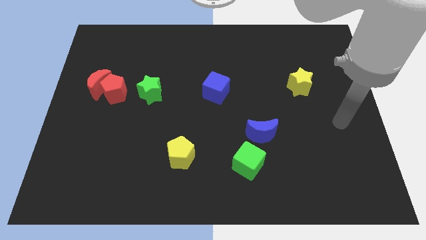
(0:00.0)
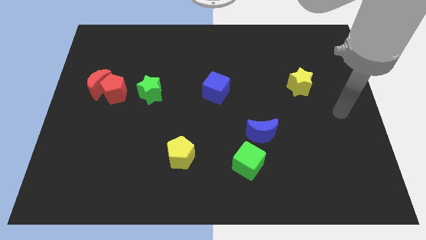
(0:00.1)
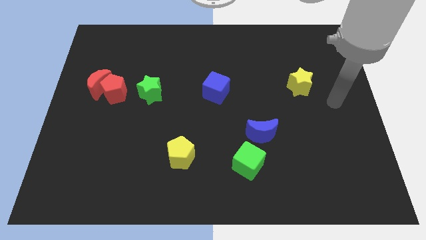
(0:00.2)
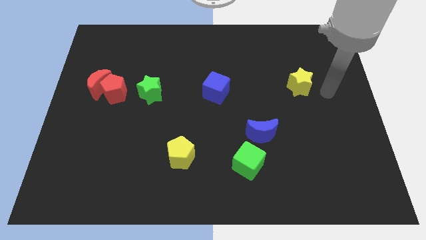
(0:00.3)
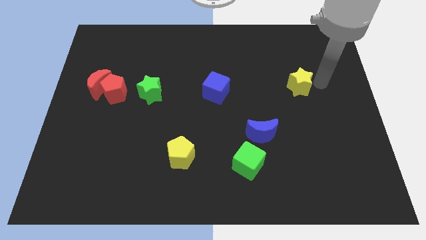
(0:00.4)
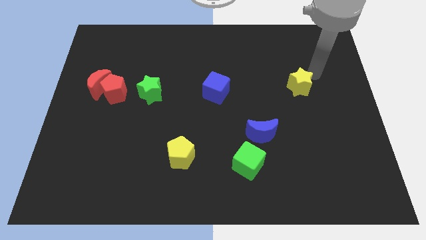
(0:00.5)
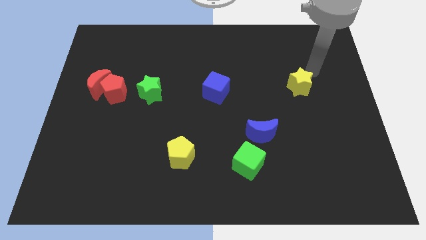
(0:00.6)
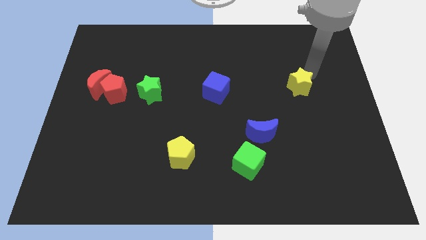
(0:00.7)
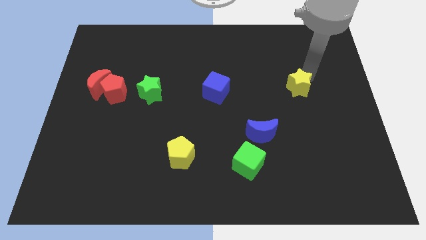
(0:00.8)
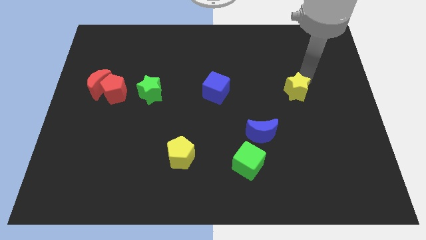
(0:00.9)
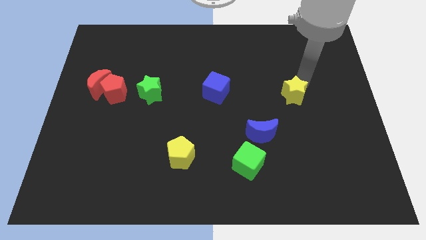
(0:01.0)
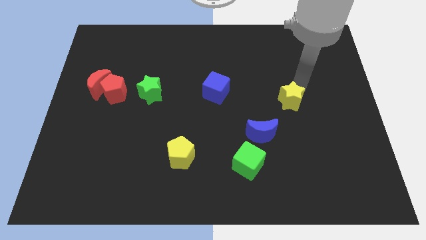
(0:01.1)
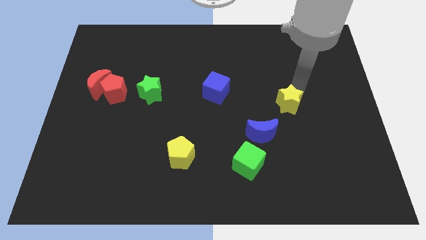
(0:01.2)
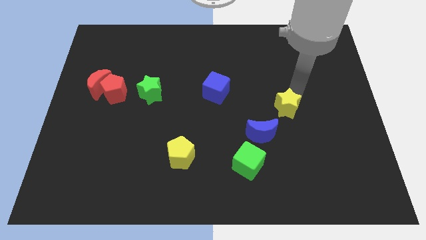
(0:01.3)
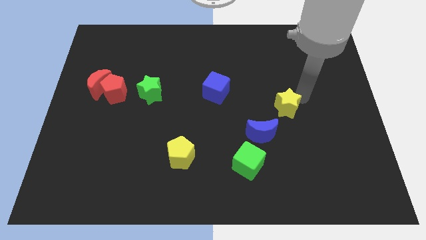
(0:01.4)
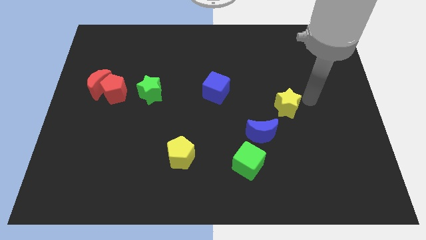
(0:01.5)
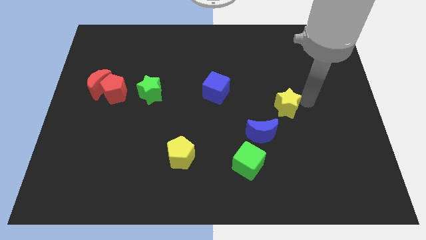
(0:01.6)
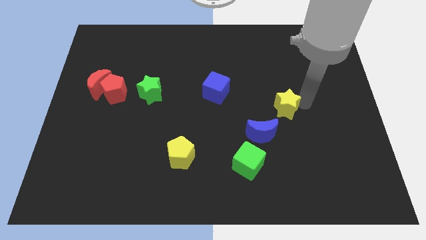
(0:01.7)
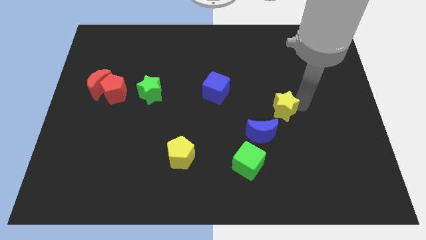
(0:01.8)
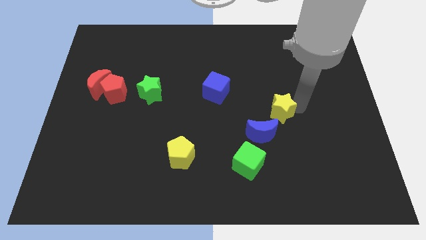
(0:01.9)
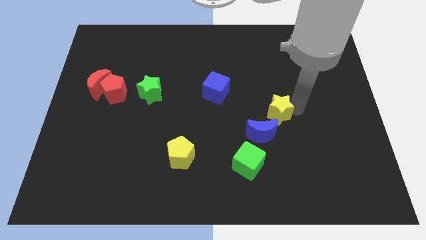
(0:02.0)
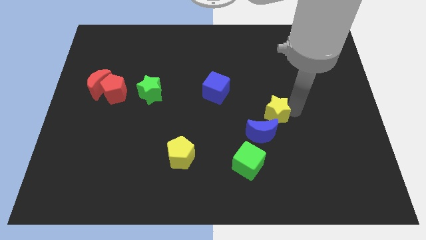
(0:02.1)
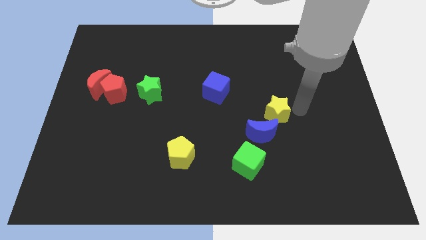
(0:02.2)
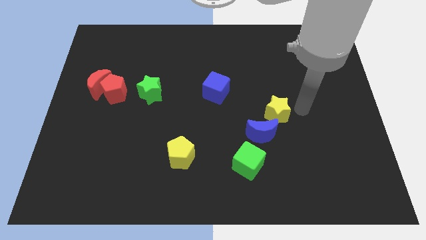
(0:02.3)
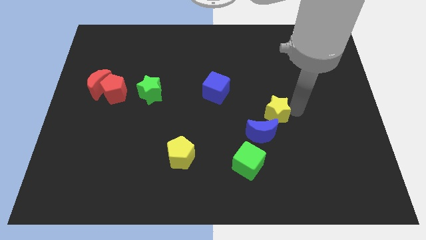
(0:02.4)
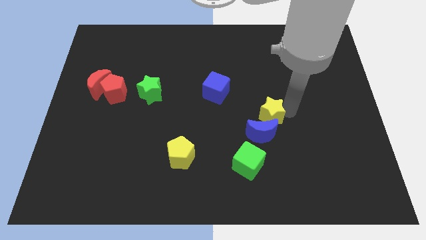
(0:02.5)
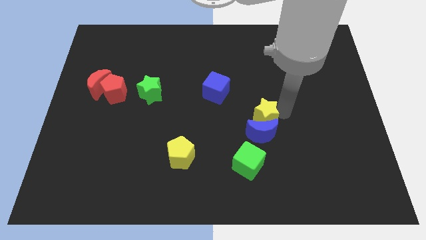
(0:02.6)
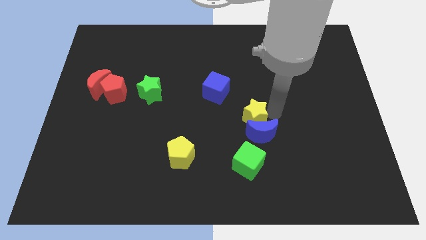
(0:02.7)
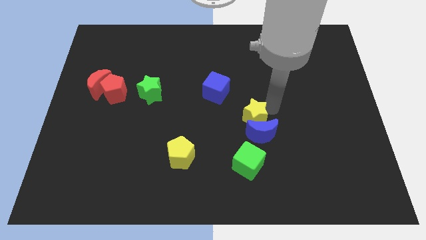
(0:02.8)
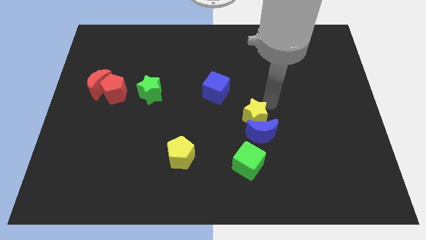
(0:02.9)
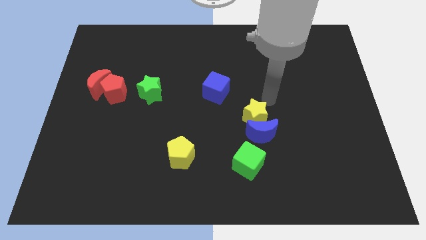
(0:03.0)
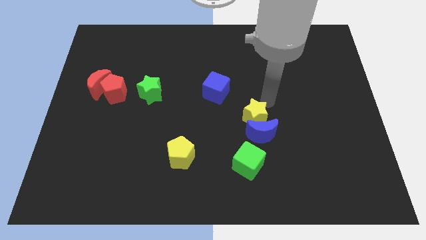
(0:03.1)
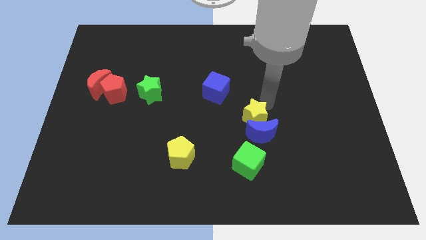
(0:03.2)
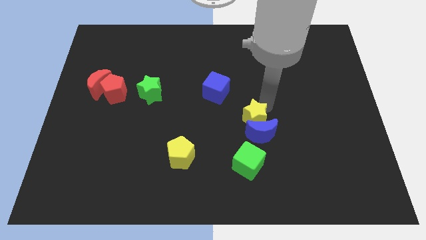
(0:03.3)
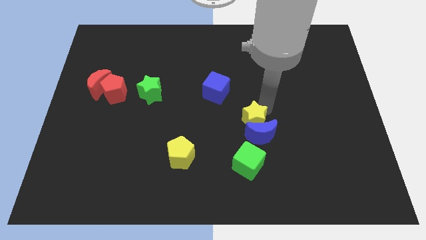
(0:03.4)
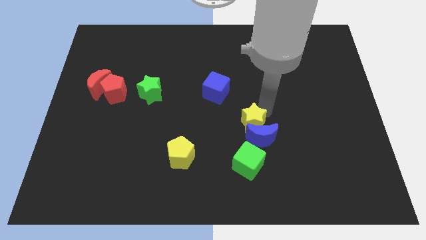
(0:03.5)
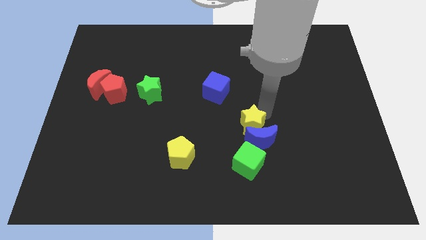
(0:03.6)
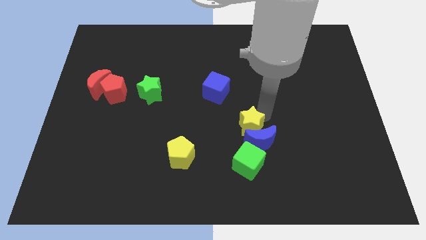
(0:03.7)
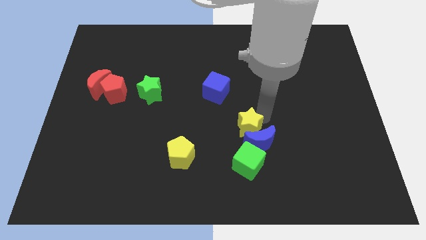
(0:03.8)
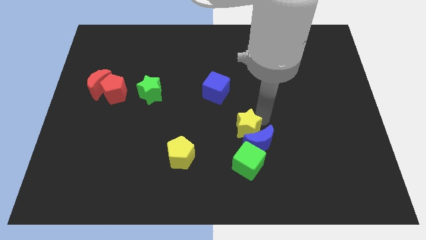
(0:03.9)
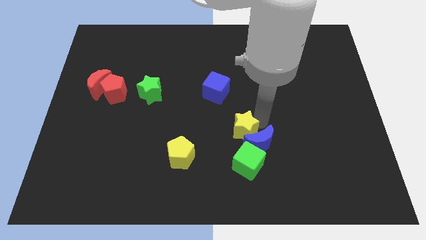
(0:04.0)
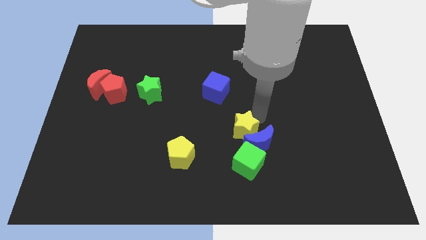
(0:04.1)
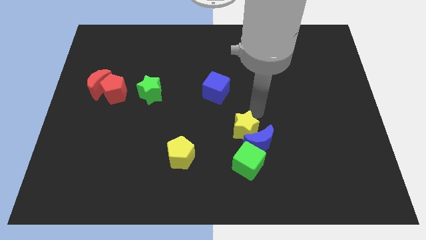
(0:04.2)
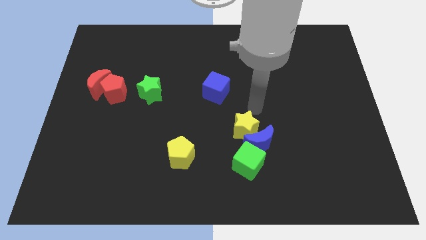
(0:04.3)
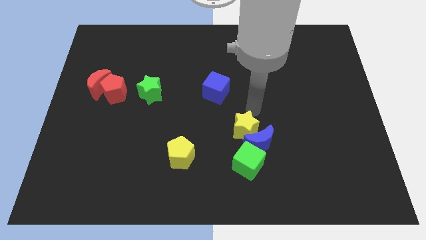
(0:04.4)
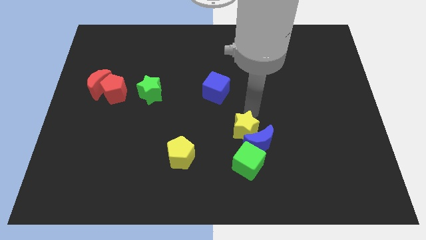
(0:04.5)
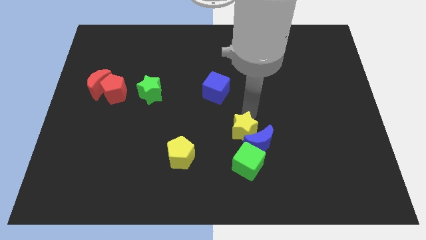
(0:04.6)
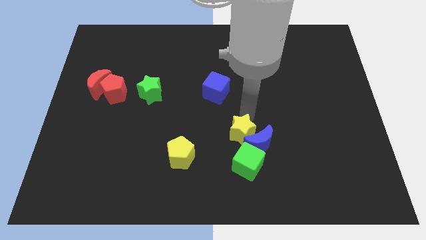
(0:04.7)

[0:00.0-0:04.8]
slide the yellow star downwards and left

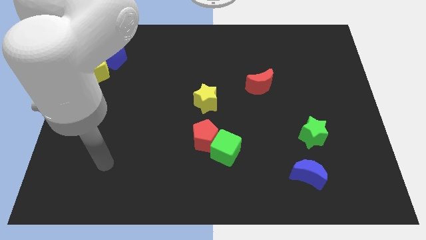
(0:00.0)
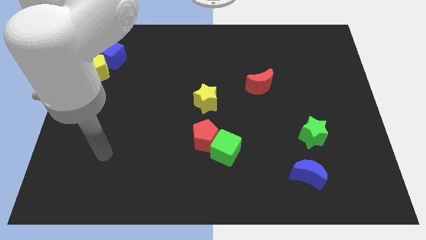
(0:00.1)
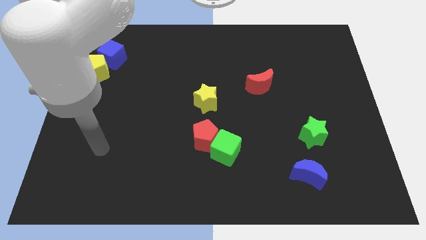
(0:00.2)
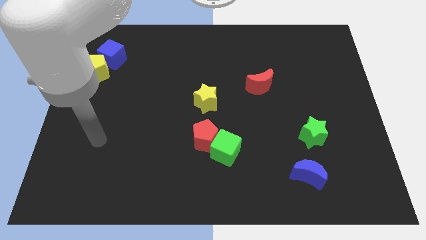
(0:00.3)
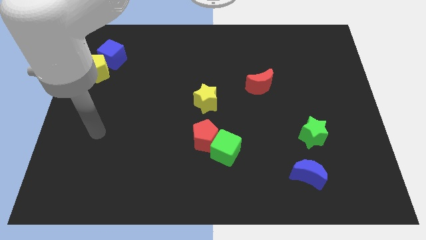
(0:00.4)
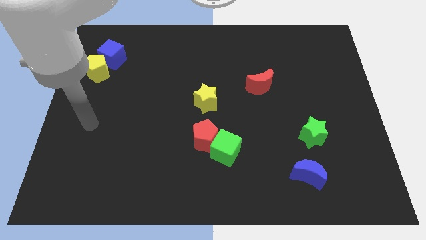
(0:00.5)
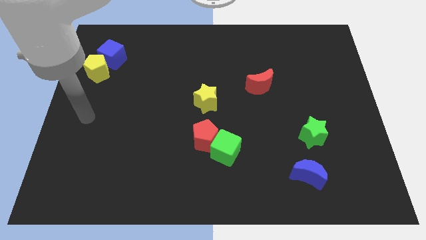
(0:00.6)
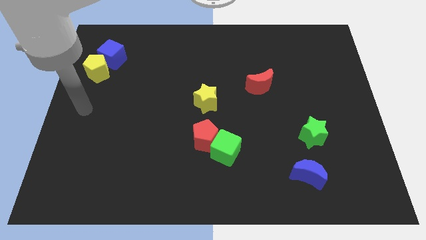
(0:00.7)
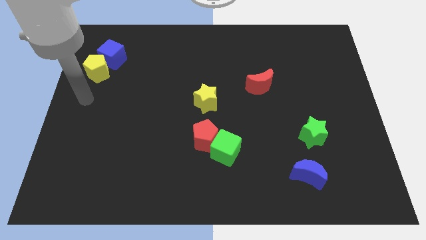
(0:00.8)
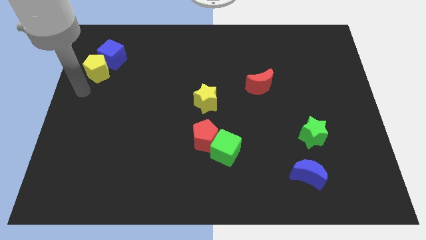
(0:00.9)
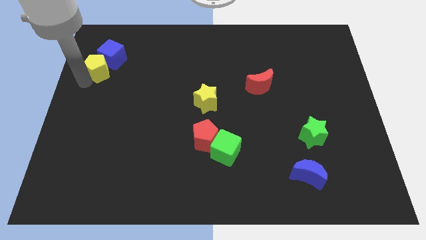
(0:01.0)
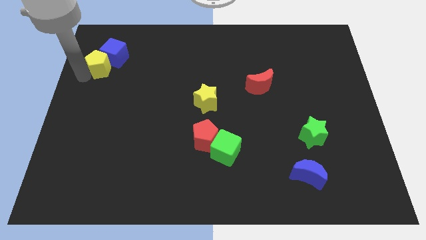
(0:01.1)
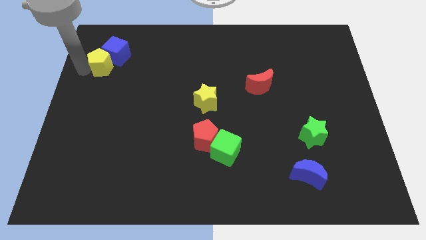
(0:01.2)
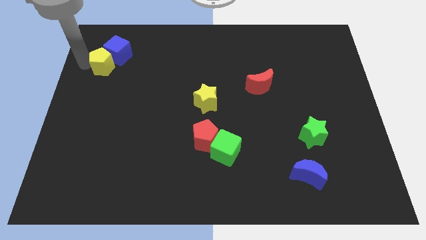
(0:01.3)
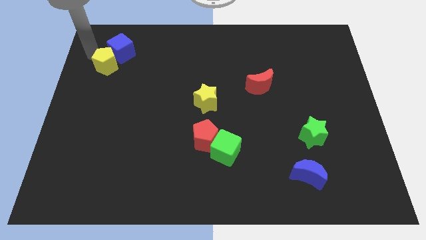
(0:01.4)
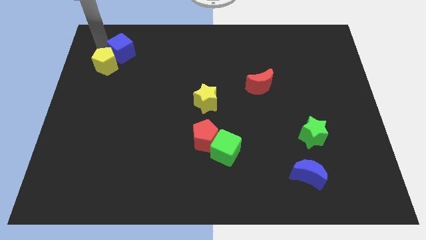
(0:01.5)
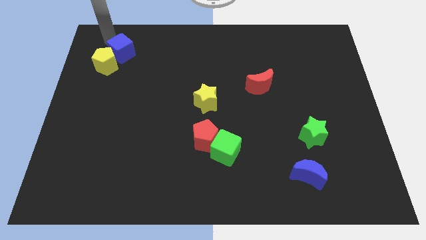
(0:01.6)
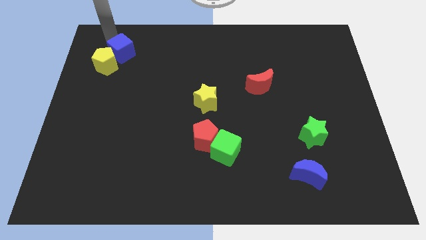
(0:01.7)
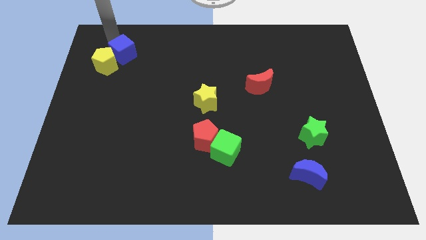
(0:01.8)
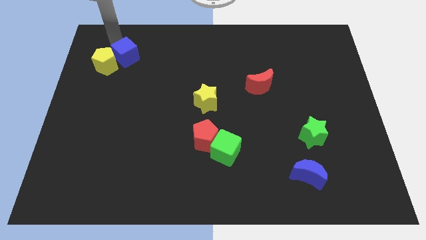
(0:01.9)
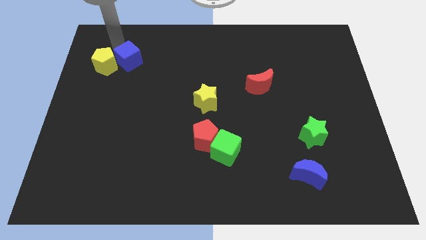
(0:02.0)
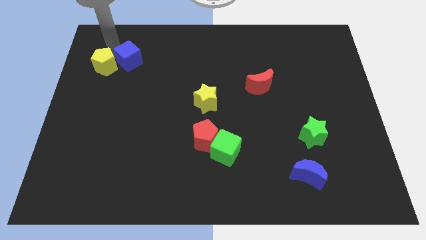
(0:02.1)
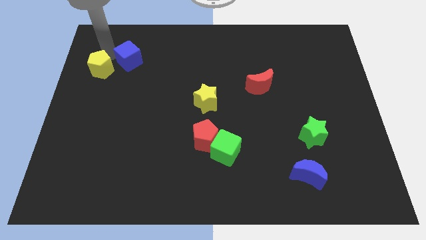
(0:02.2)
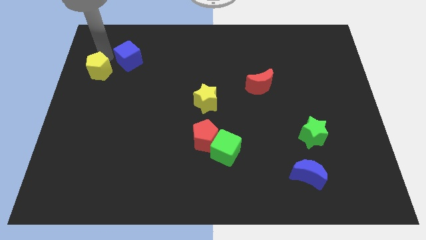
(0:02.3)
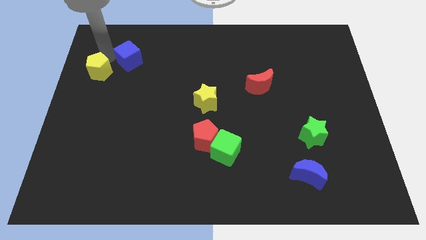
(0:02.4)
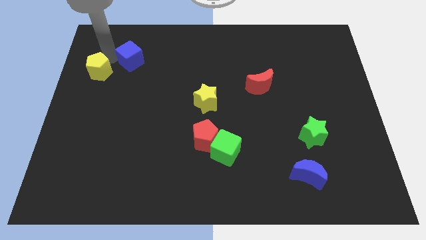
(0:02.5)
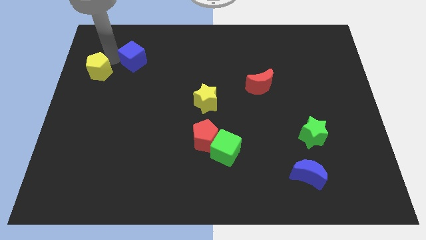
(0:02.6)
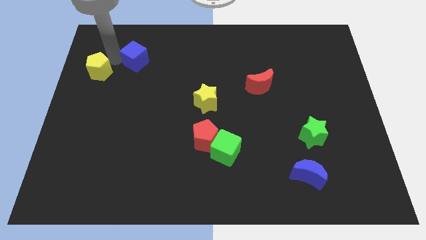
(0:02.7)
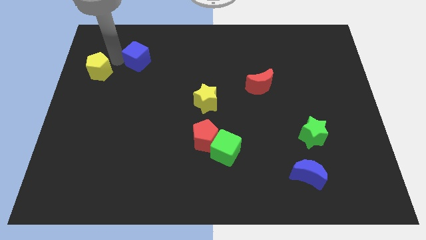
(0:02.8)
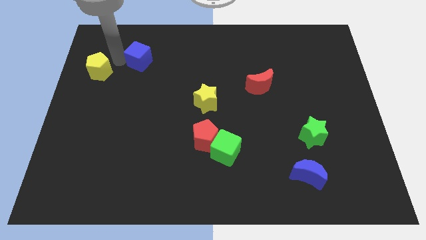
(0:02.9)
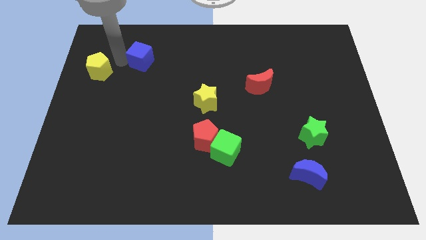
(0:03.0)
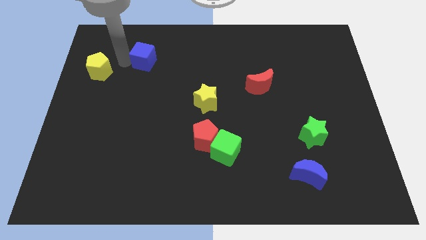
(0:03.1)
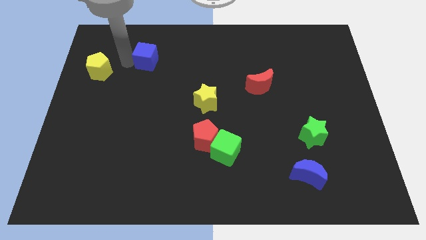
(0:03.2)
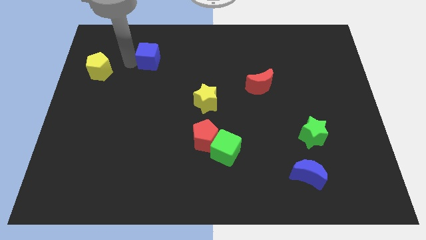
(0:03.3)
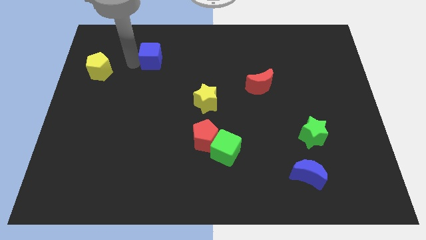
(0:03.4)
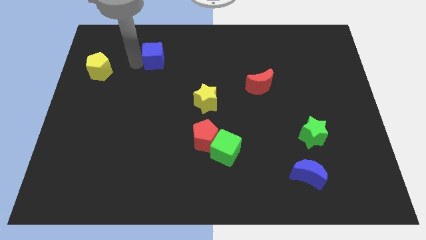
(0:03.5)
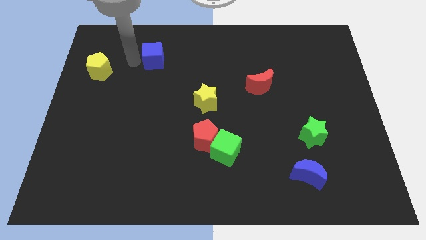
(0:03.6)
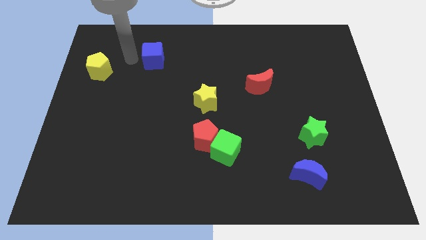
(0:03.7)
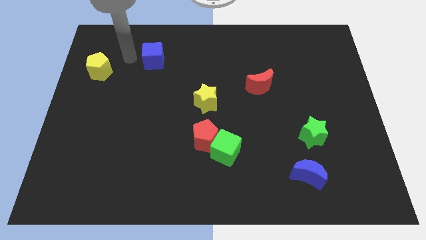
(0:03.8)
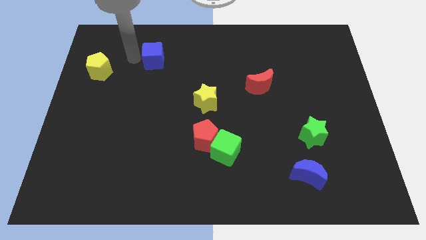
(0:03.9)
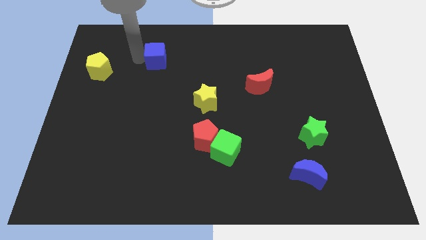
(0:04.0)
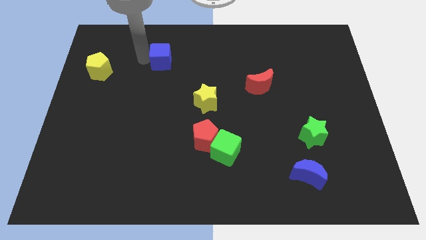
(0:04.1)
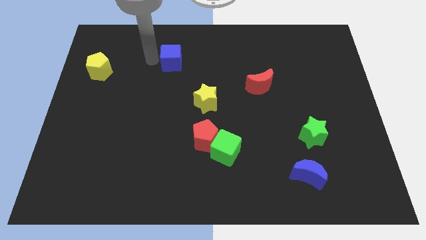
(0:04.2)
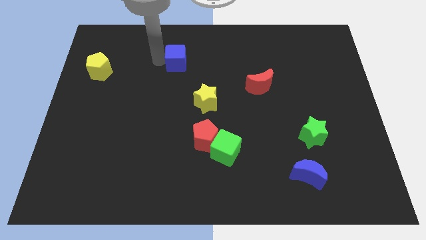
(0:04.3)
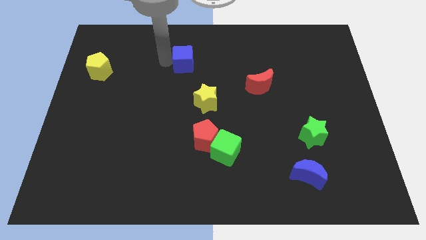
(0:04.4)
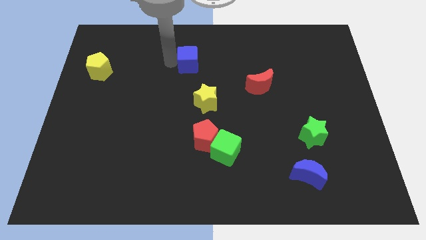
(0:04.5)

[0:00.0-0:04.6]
move the blue cube right
